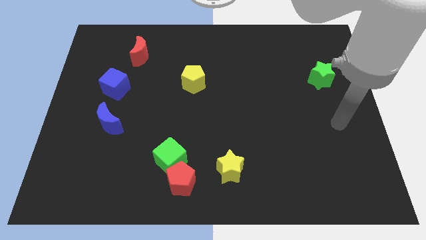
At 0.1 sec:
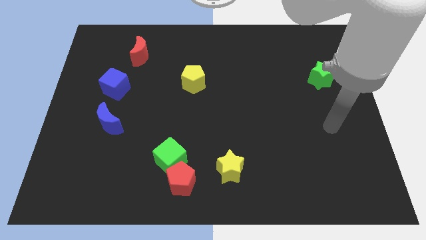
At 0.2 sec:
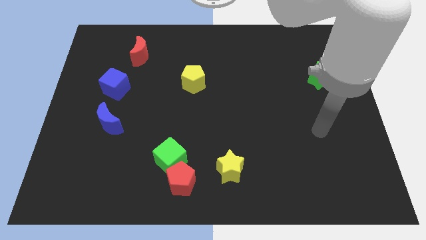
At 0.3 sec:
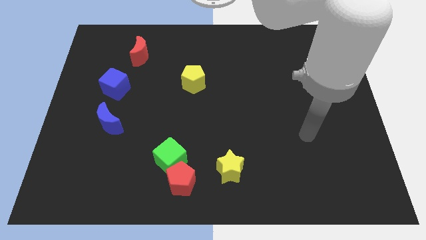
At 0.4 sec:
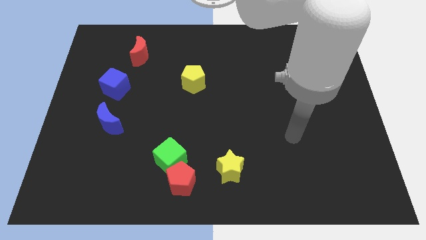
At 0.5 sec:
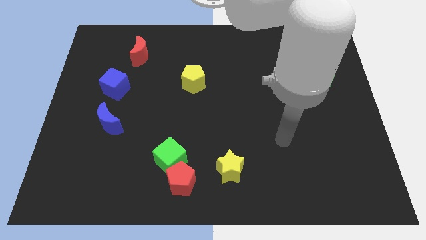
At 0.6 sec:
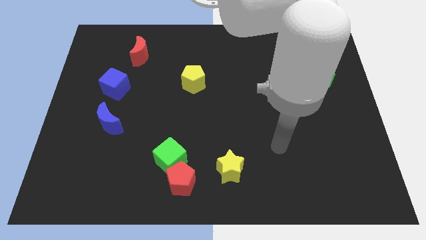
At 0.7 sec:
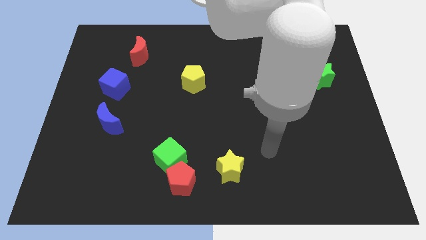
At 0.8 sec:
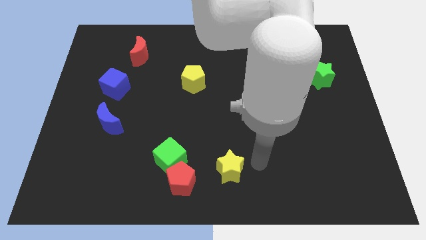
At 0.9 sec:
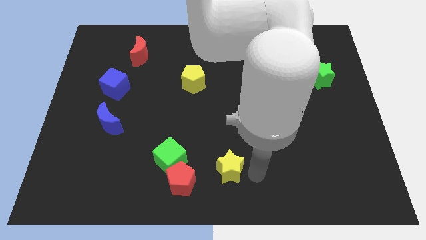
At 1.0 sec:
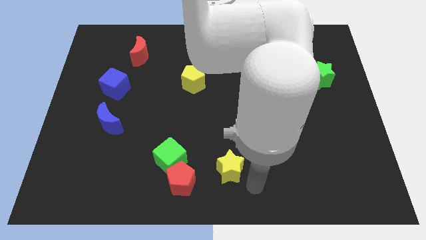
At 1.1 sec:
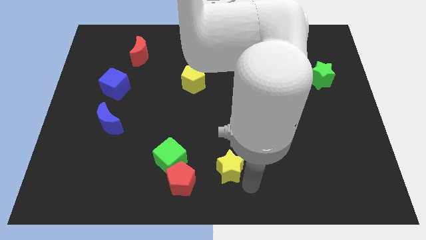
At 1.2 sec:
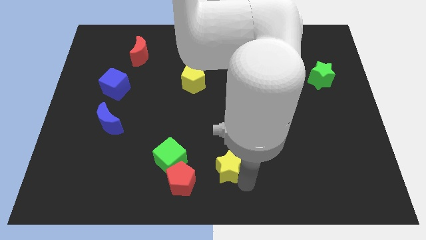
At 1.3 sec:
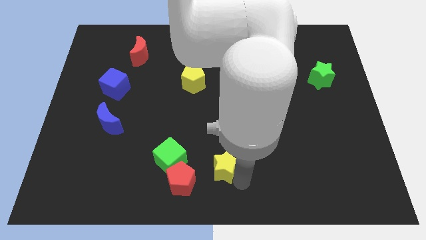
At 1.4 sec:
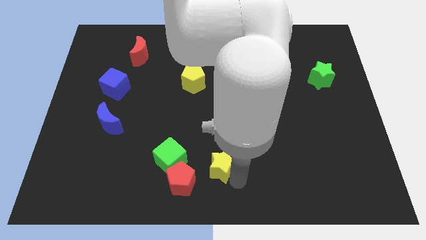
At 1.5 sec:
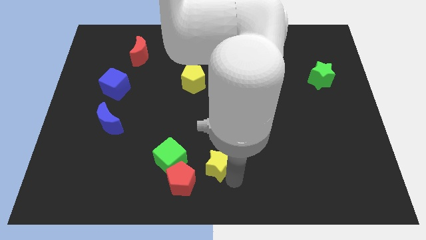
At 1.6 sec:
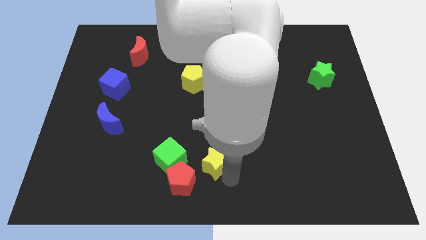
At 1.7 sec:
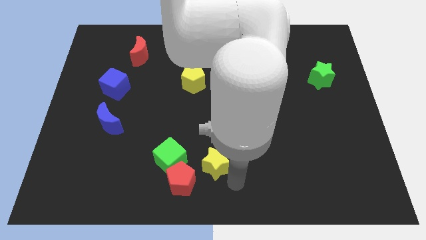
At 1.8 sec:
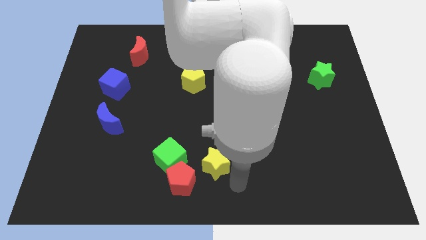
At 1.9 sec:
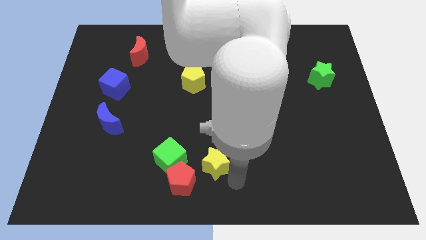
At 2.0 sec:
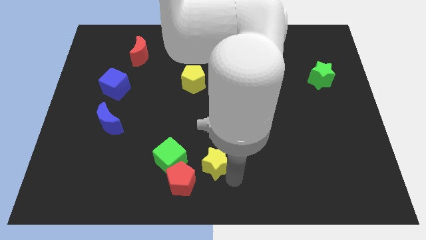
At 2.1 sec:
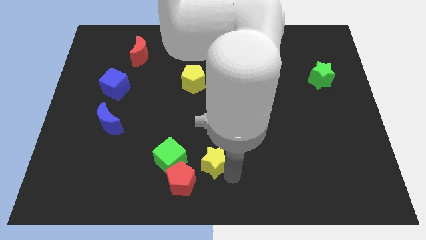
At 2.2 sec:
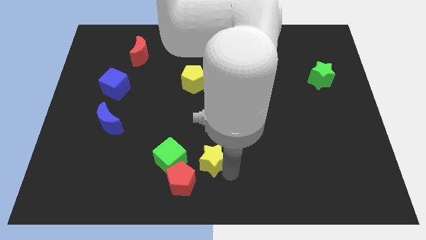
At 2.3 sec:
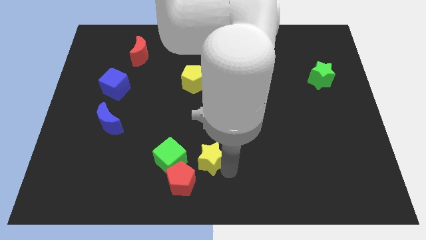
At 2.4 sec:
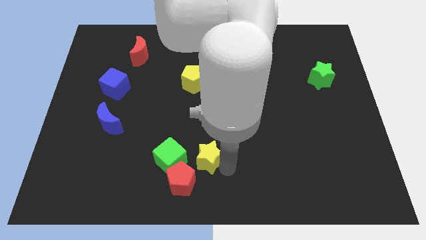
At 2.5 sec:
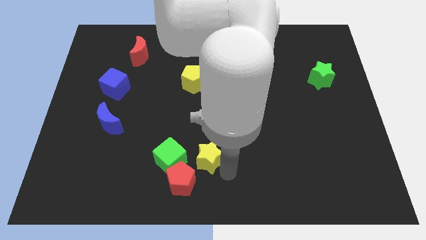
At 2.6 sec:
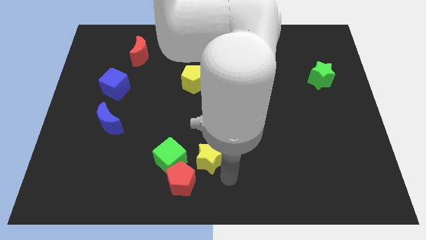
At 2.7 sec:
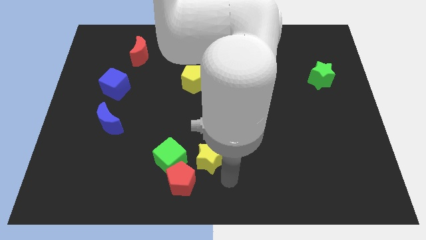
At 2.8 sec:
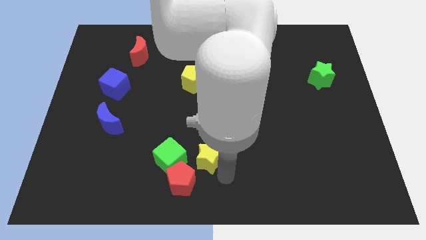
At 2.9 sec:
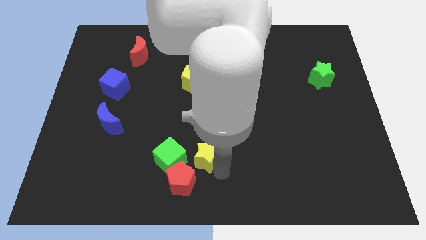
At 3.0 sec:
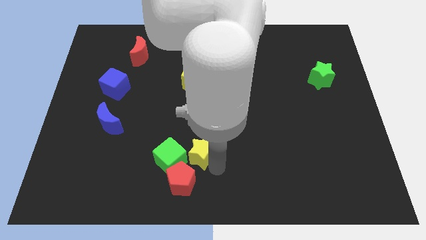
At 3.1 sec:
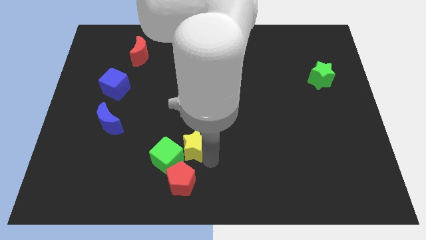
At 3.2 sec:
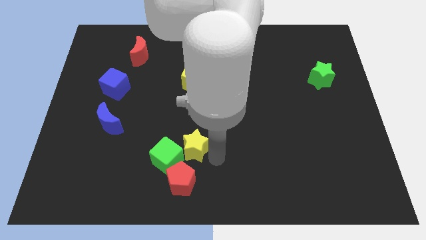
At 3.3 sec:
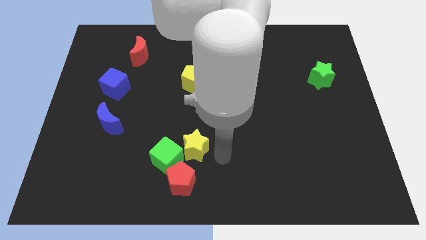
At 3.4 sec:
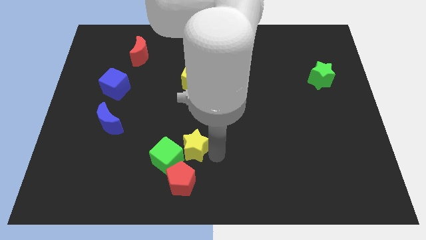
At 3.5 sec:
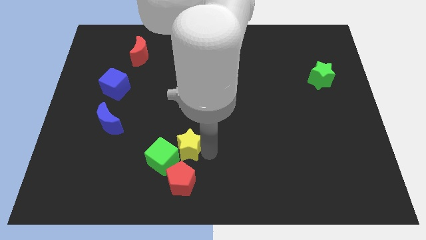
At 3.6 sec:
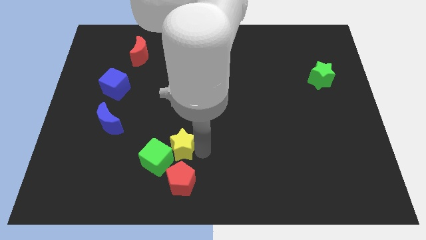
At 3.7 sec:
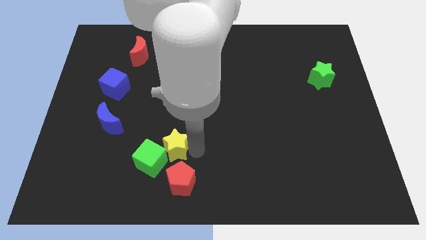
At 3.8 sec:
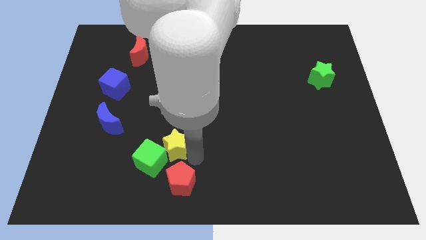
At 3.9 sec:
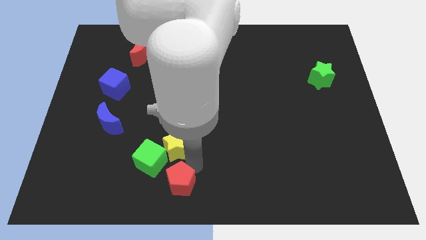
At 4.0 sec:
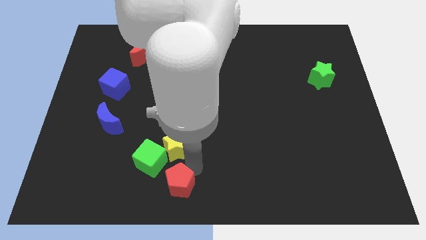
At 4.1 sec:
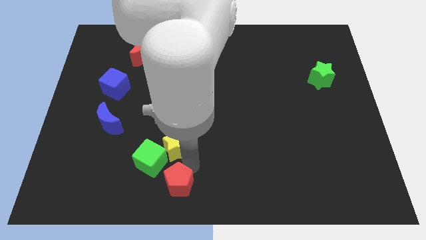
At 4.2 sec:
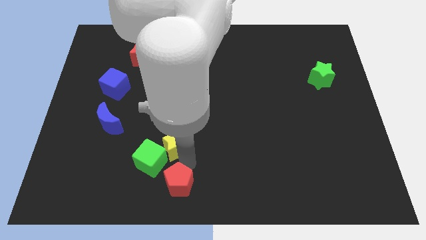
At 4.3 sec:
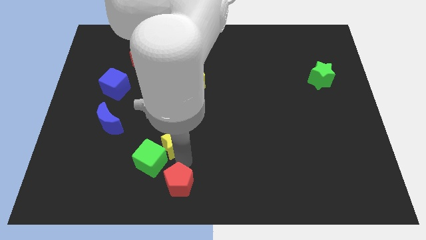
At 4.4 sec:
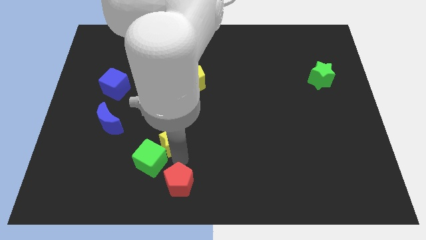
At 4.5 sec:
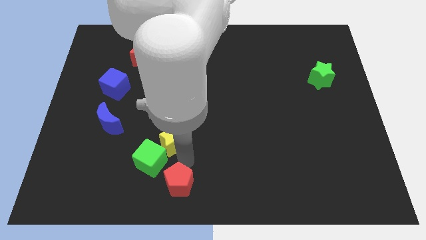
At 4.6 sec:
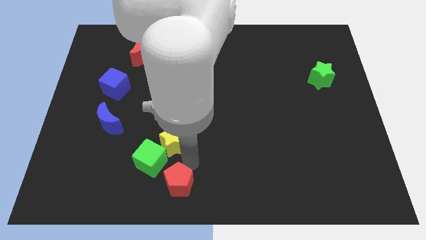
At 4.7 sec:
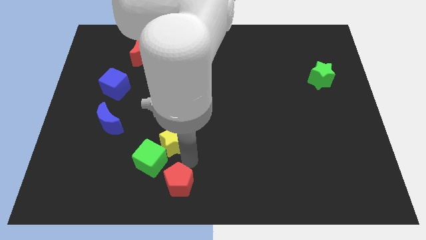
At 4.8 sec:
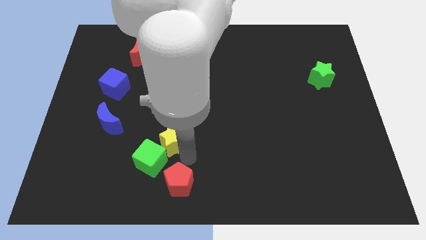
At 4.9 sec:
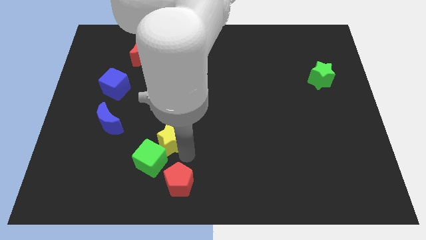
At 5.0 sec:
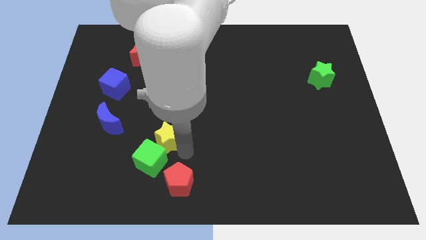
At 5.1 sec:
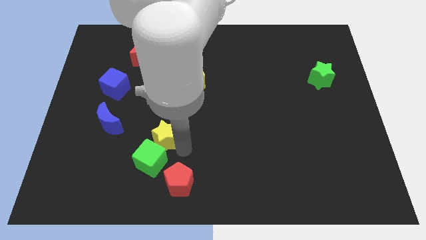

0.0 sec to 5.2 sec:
slide the yellow star just right of the blue moon

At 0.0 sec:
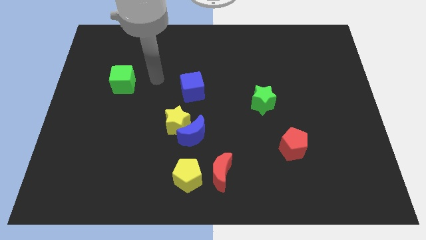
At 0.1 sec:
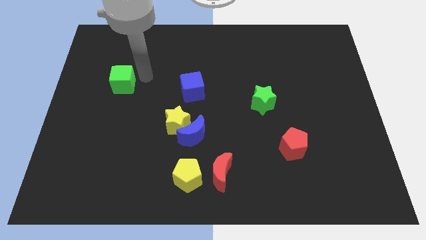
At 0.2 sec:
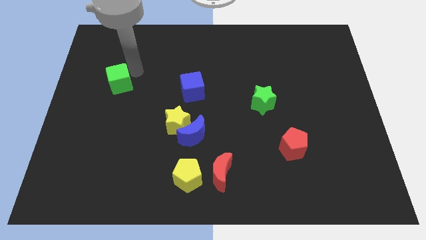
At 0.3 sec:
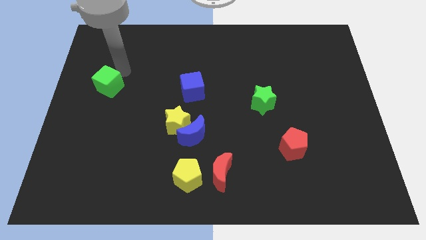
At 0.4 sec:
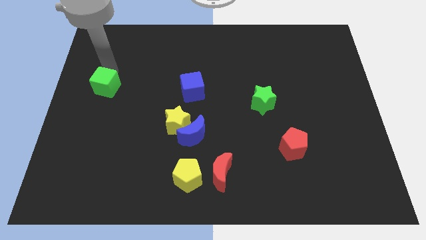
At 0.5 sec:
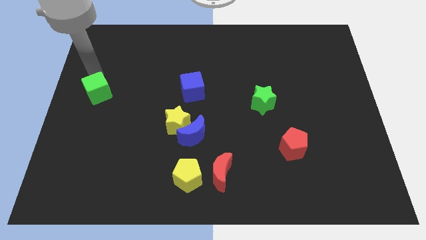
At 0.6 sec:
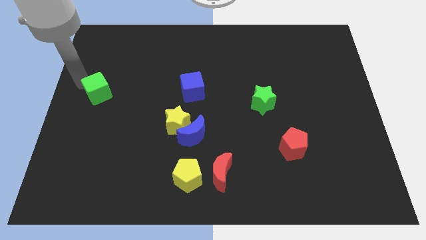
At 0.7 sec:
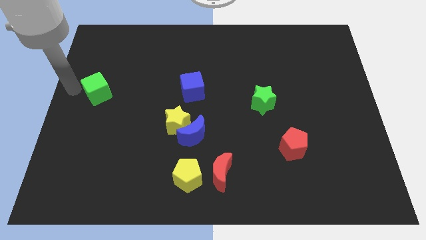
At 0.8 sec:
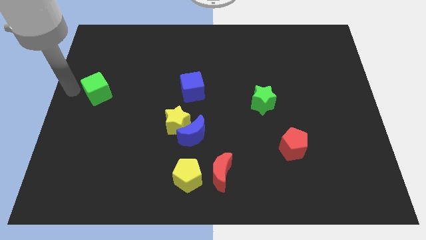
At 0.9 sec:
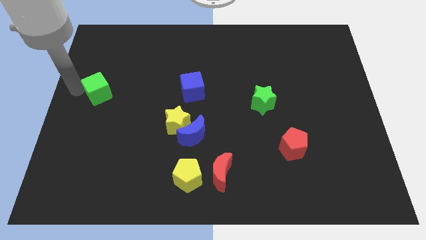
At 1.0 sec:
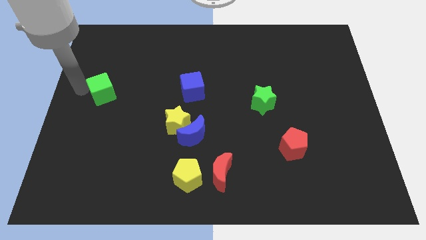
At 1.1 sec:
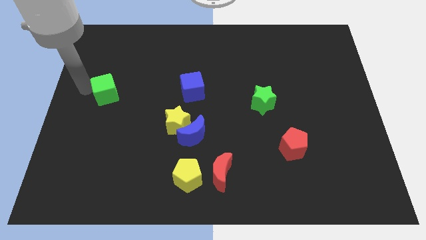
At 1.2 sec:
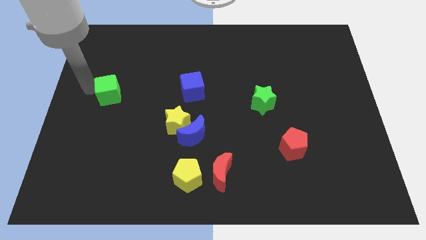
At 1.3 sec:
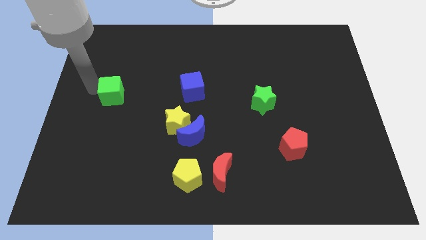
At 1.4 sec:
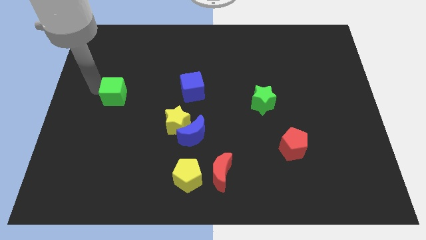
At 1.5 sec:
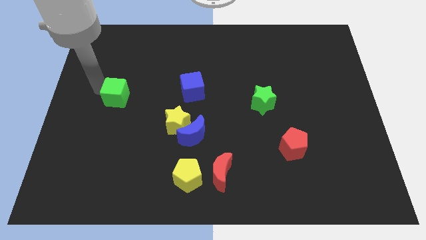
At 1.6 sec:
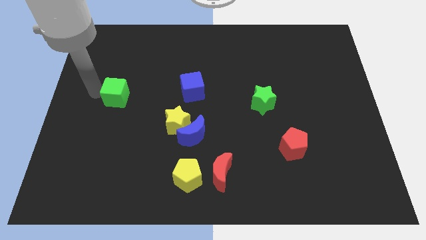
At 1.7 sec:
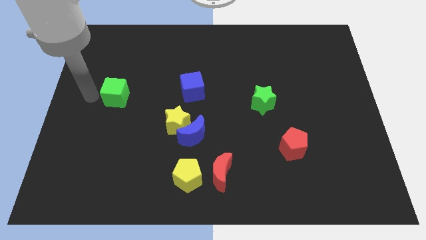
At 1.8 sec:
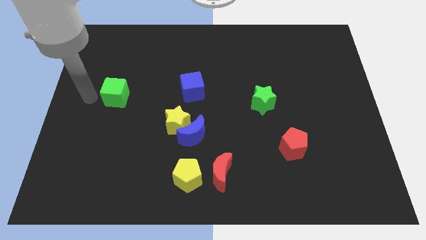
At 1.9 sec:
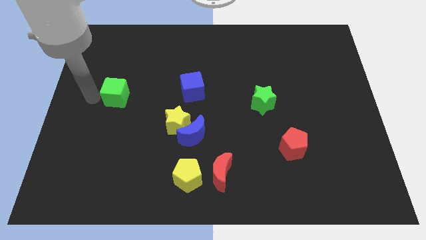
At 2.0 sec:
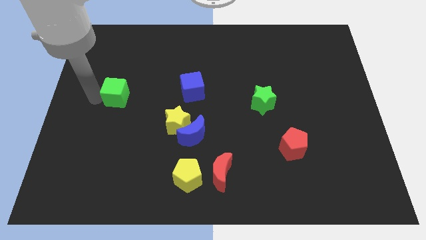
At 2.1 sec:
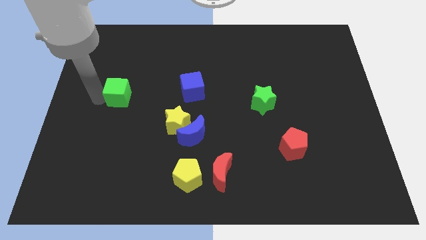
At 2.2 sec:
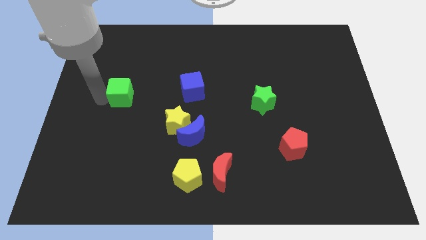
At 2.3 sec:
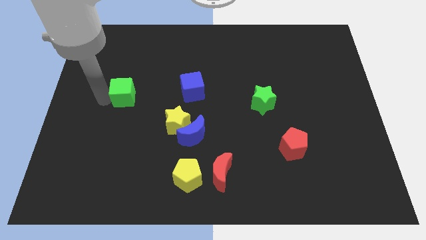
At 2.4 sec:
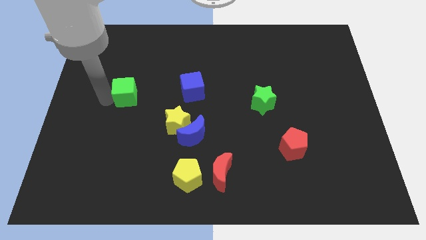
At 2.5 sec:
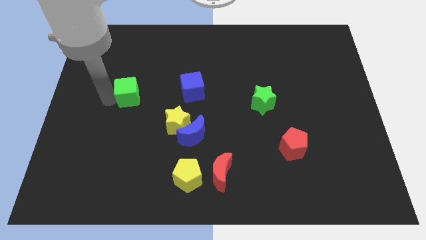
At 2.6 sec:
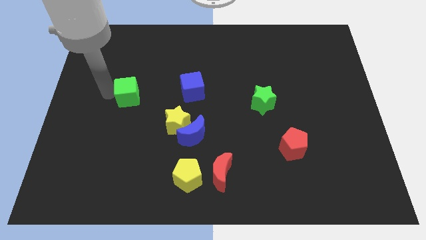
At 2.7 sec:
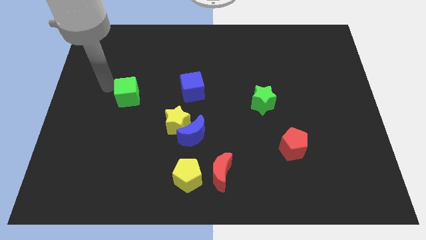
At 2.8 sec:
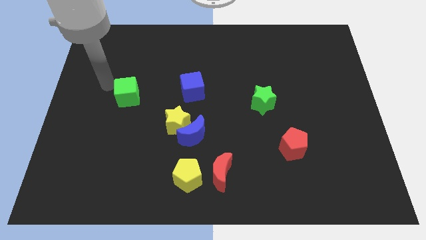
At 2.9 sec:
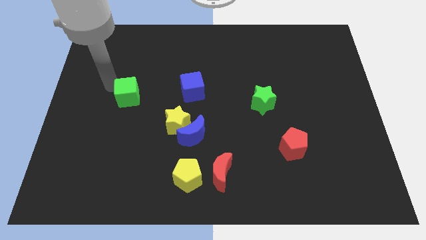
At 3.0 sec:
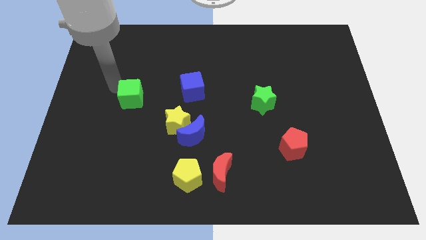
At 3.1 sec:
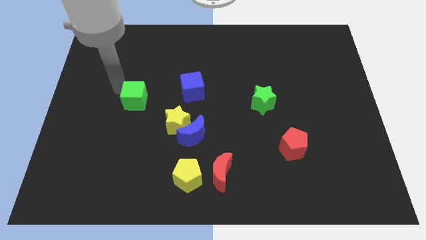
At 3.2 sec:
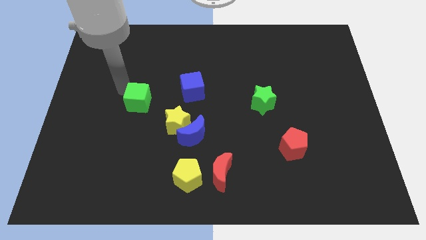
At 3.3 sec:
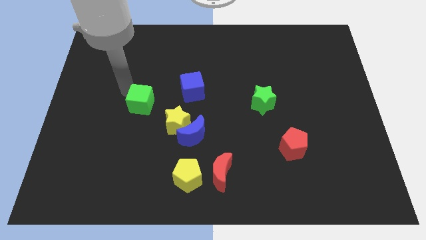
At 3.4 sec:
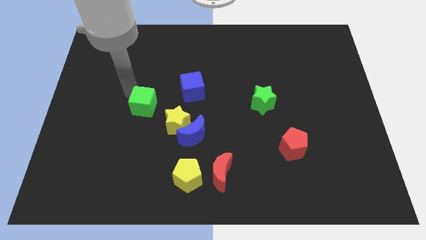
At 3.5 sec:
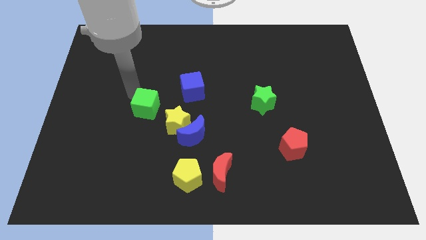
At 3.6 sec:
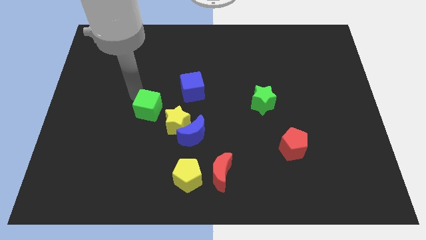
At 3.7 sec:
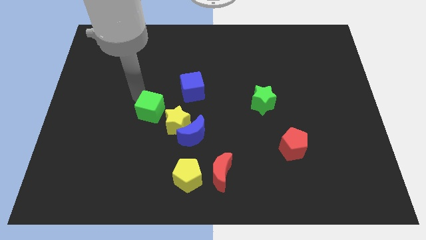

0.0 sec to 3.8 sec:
slide the green cube diagonally up and to the left of the blue moon
